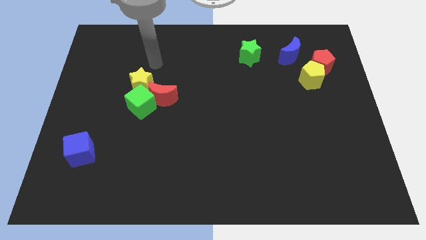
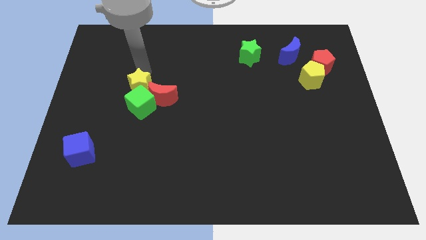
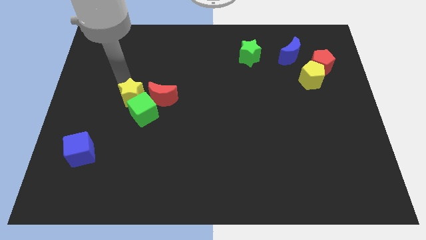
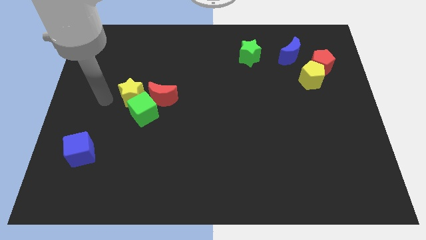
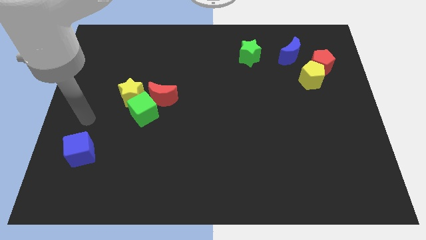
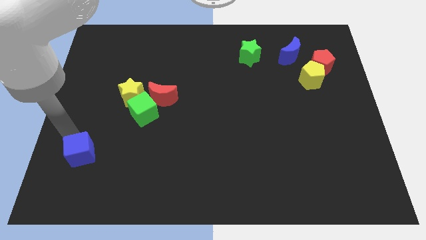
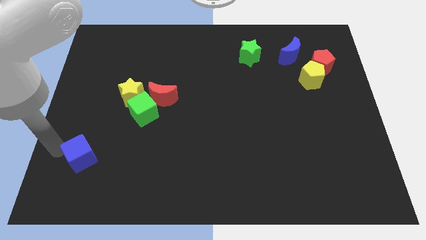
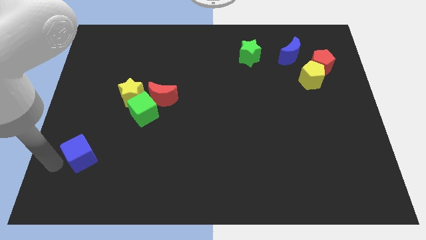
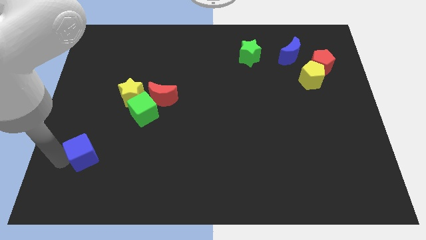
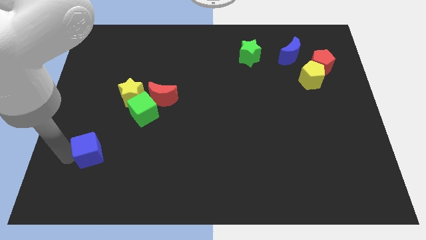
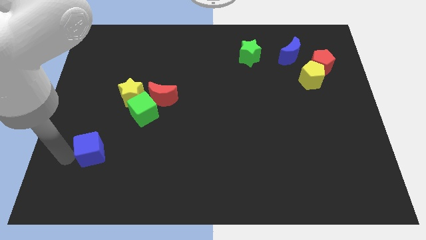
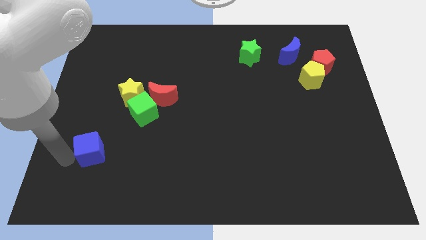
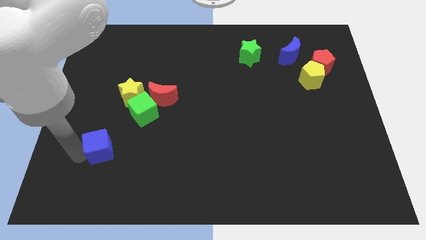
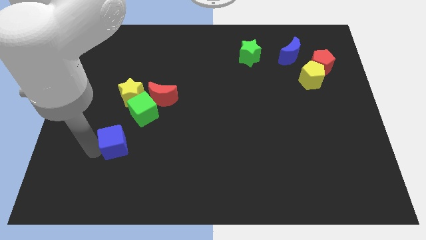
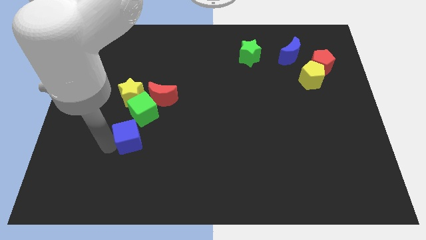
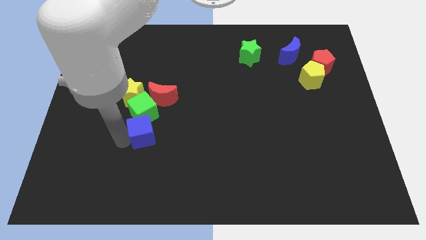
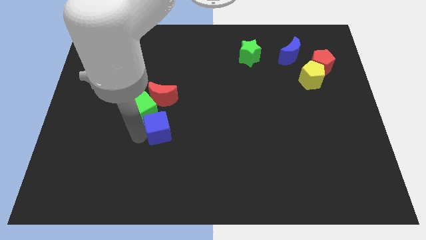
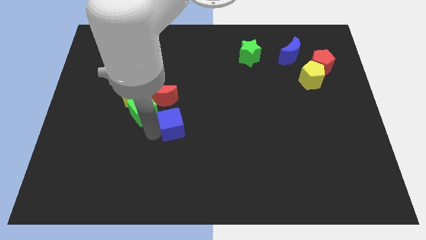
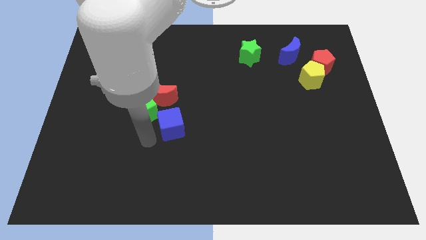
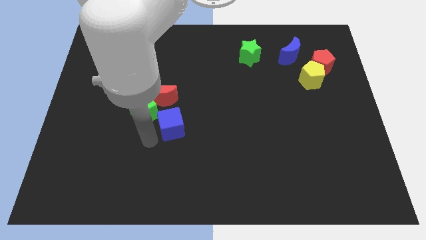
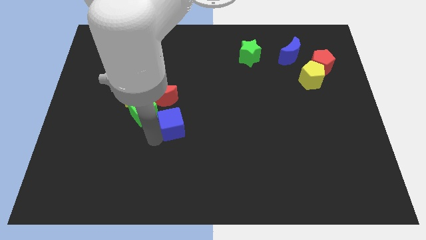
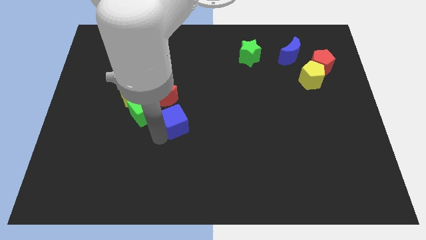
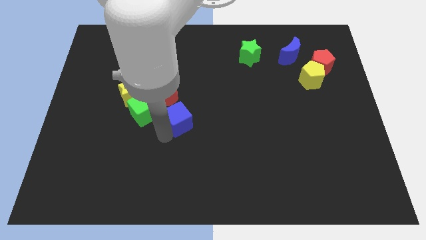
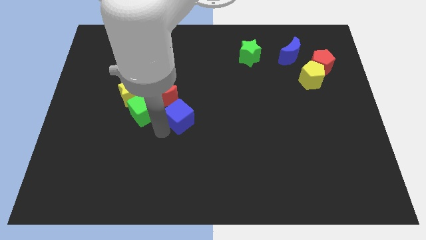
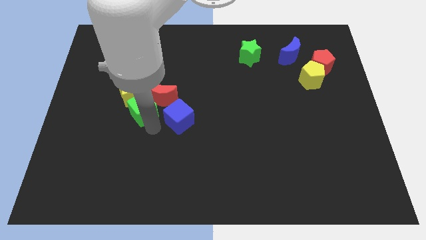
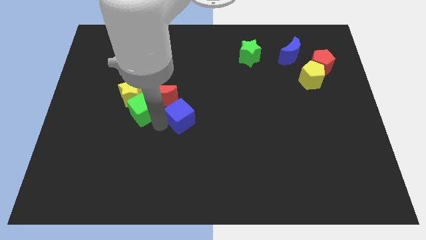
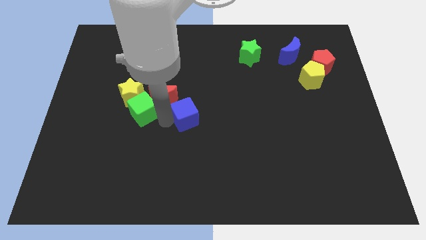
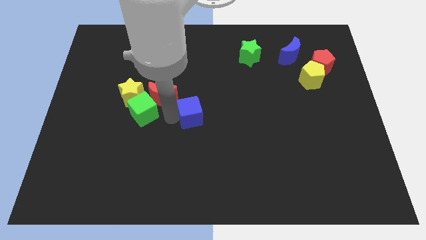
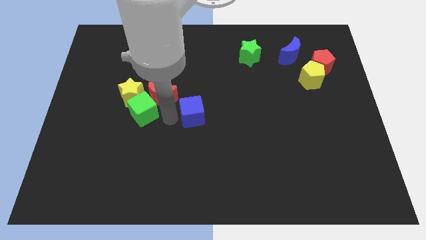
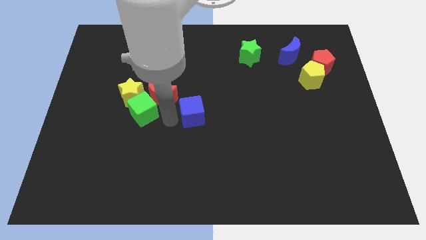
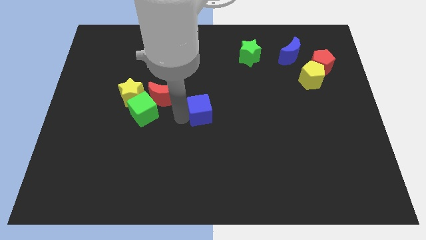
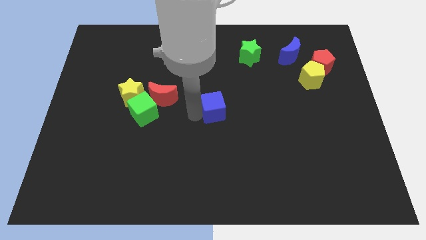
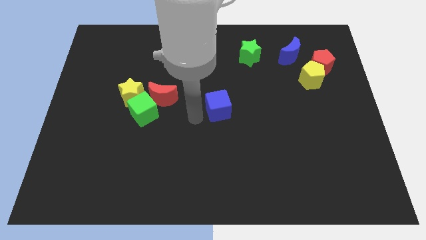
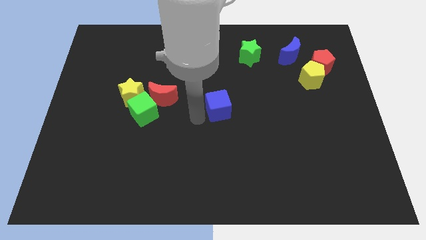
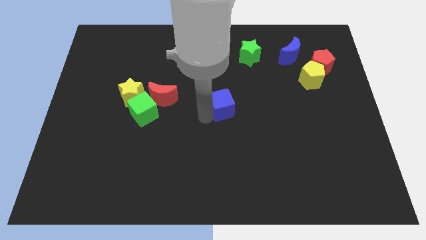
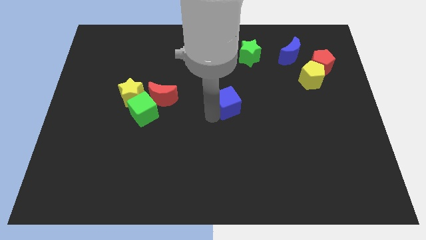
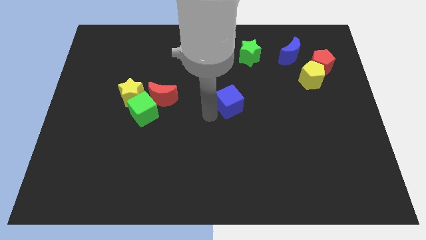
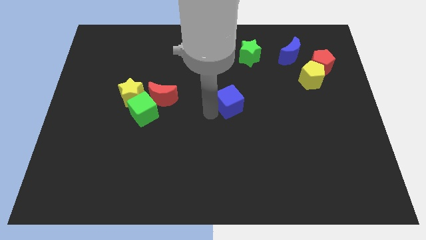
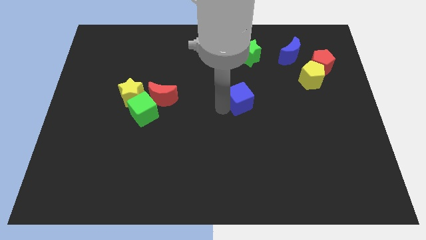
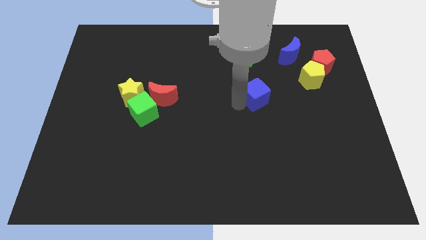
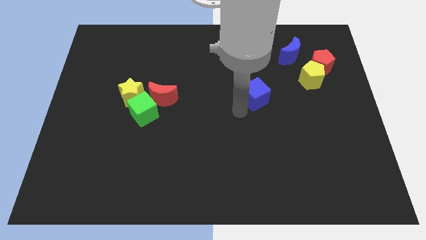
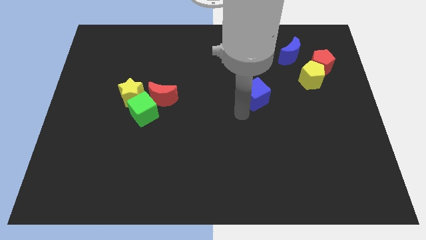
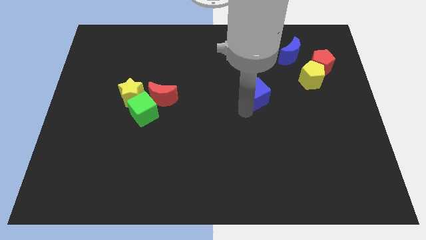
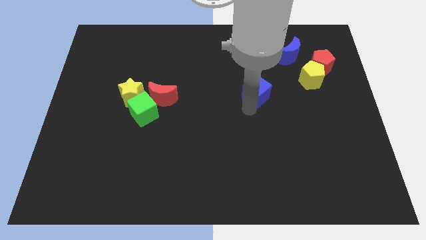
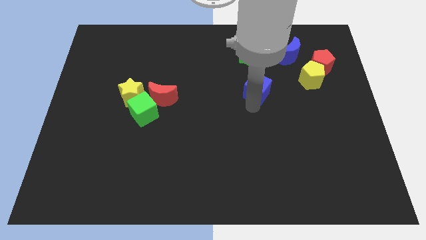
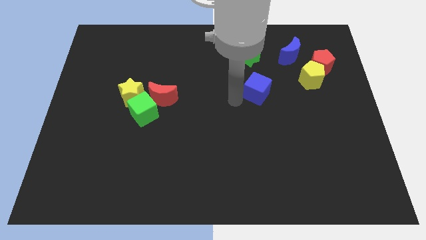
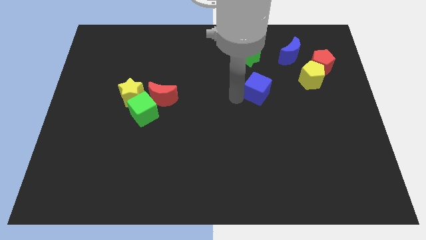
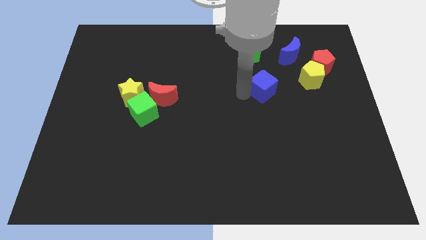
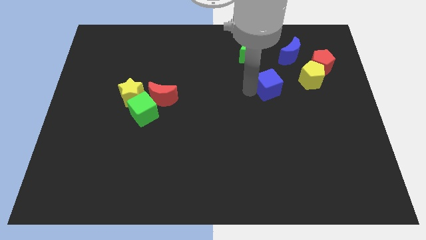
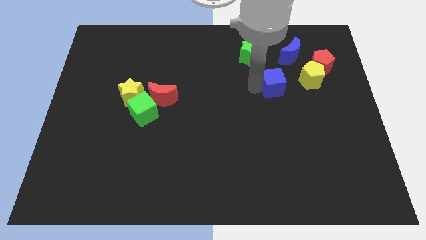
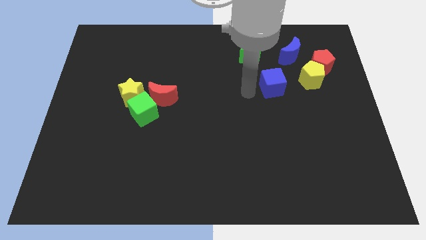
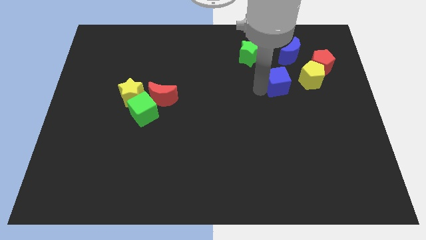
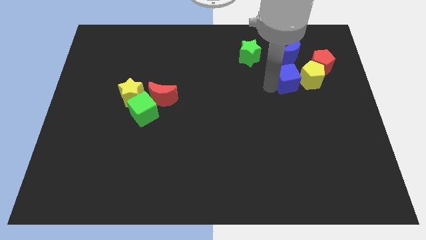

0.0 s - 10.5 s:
move the blue cube to the yellow pentagon

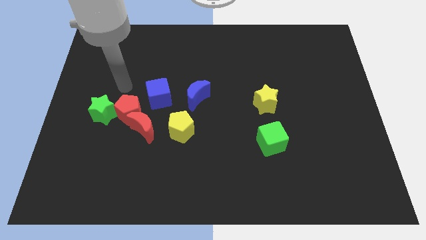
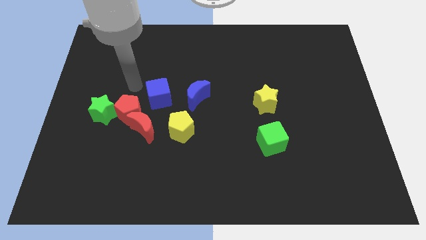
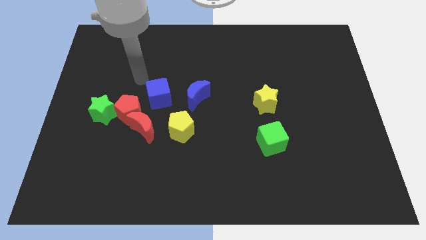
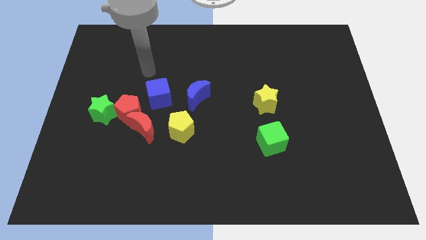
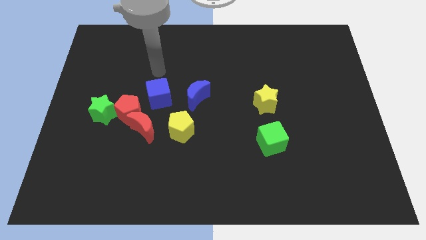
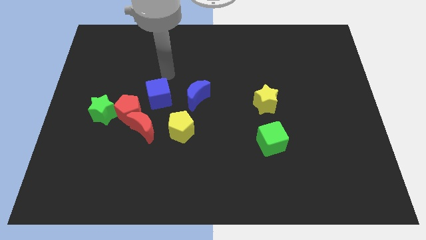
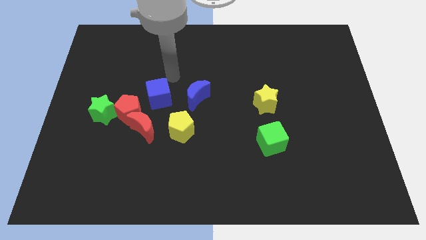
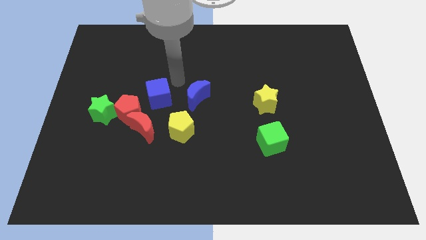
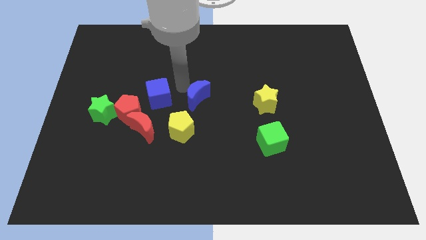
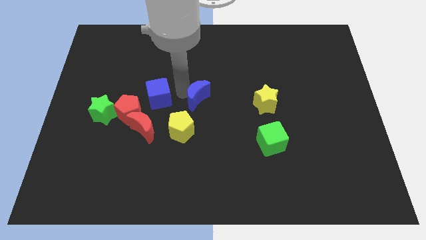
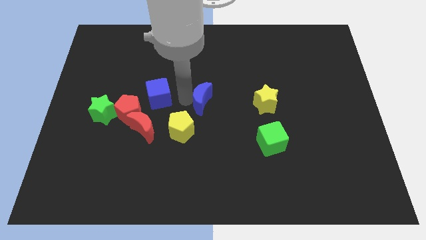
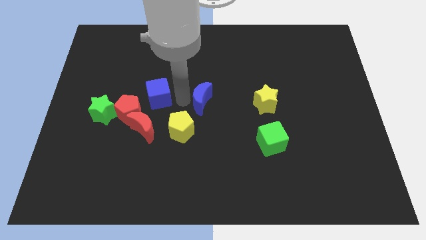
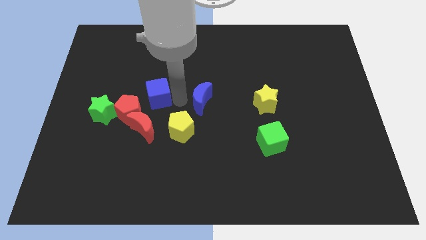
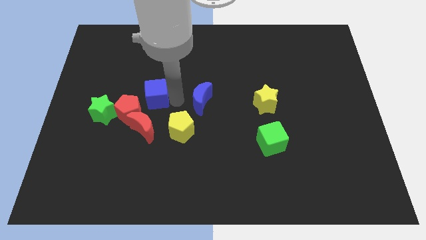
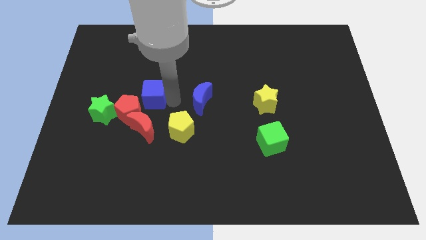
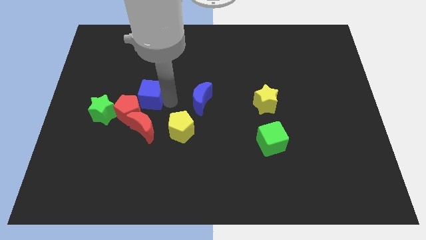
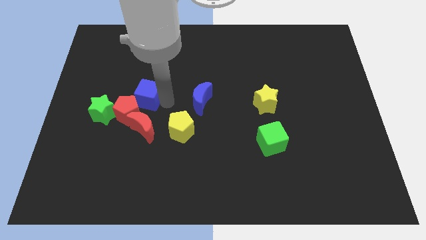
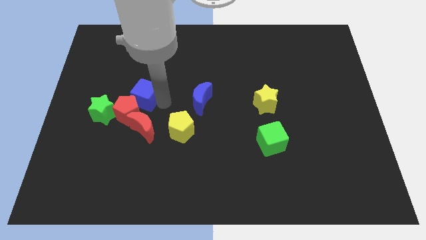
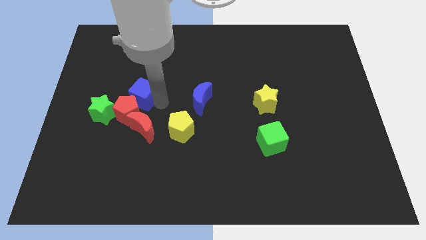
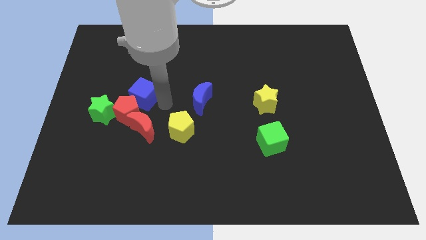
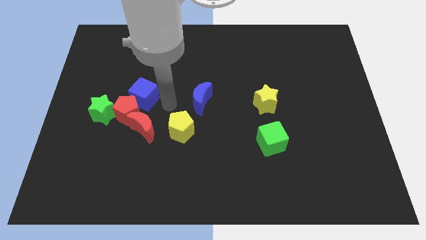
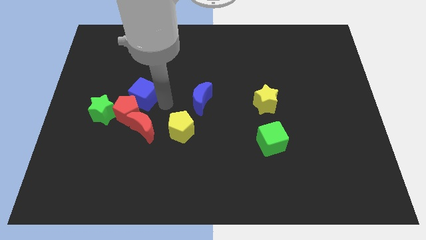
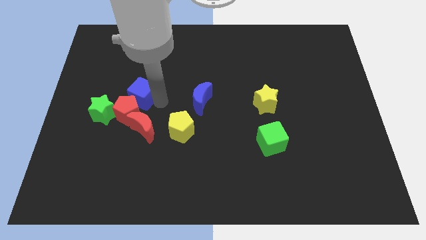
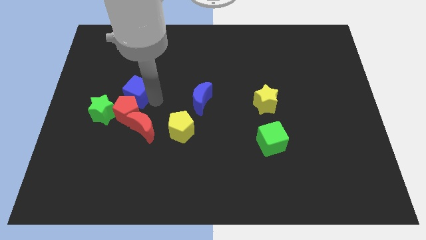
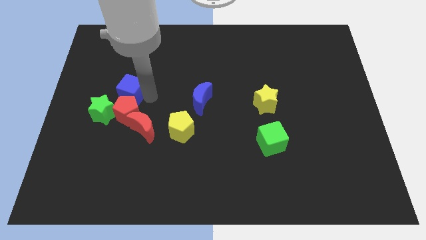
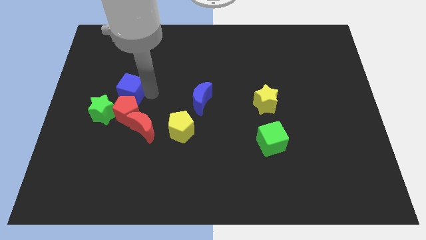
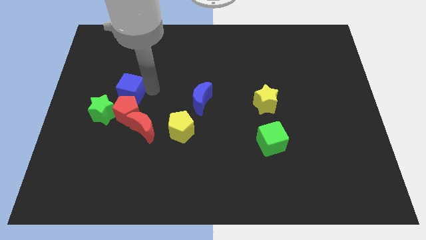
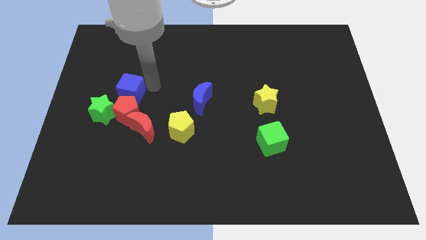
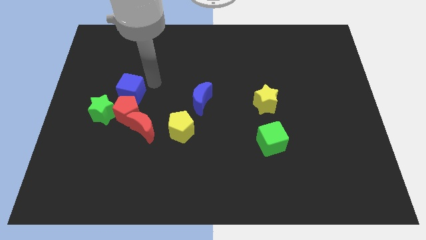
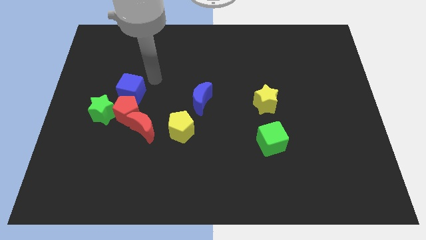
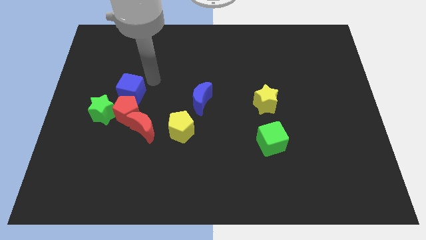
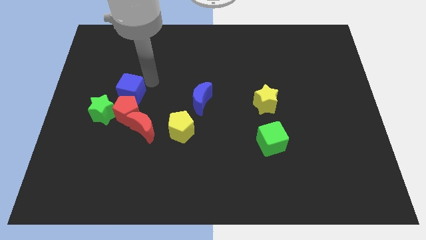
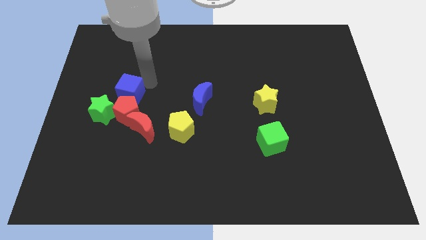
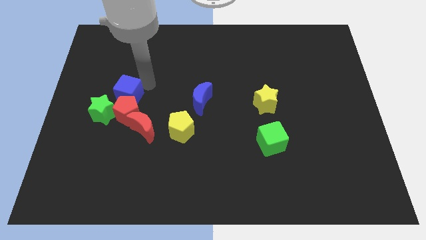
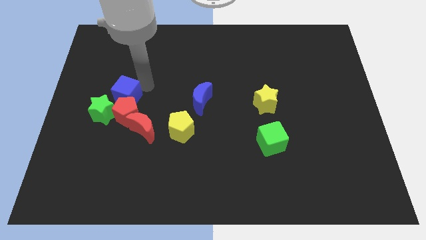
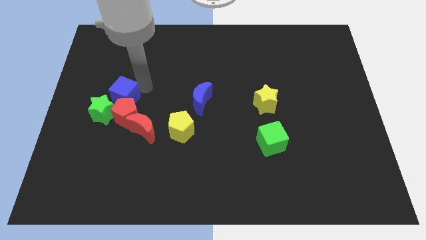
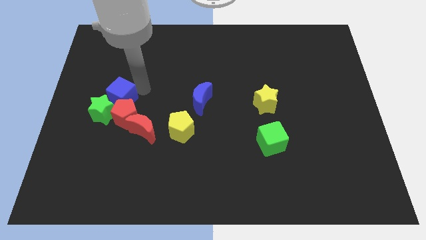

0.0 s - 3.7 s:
push the blue cube towards the green star
